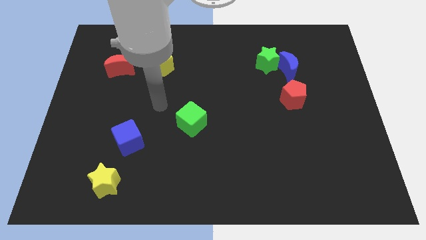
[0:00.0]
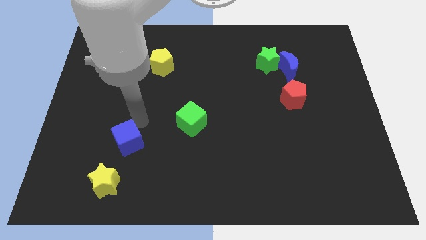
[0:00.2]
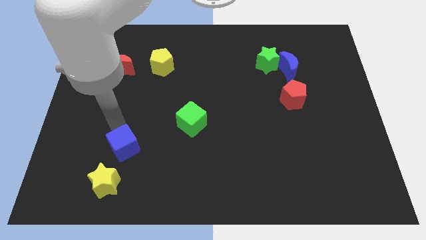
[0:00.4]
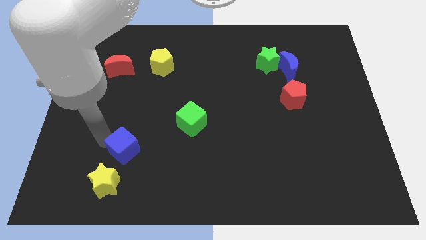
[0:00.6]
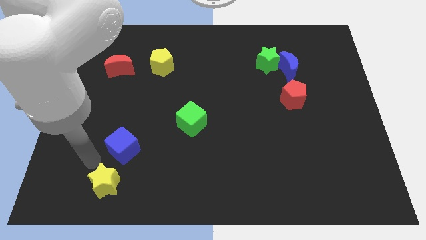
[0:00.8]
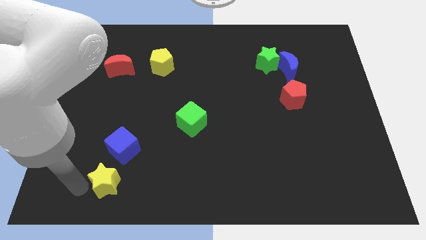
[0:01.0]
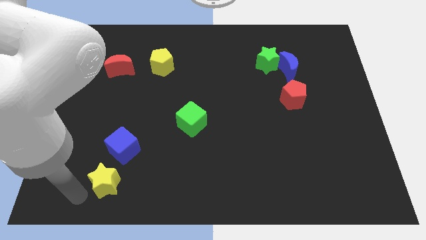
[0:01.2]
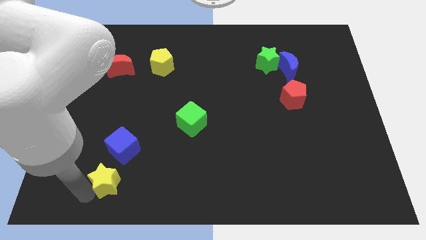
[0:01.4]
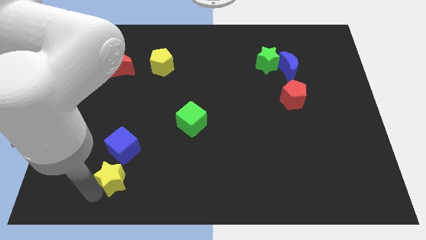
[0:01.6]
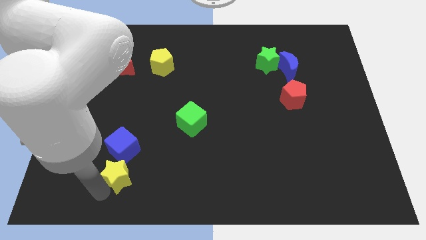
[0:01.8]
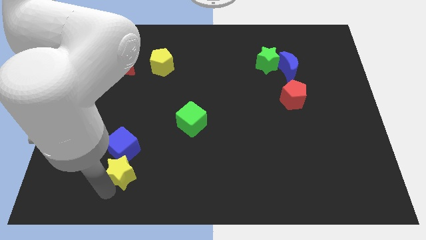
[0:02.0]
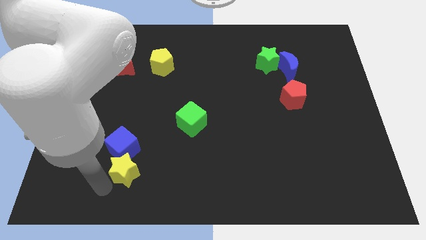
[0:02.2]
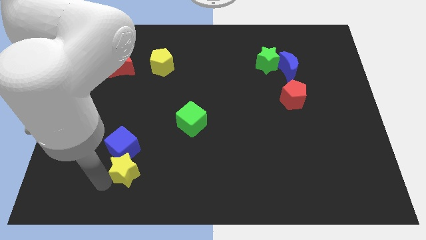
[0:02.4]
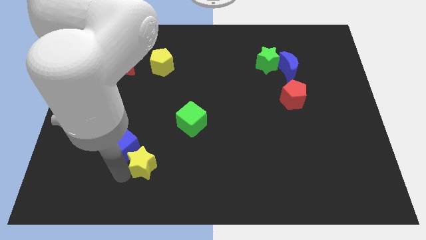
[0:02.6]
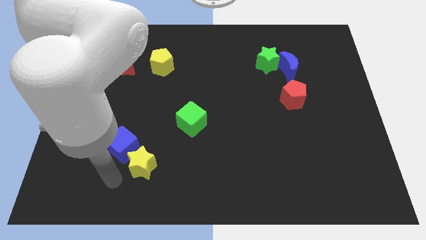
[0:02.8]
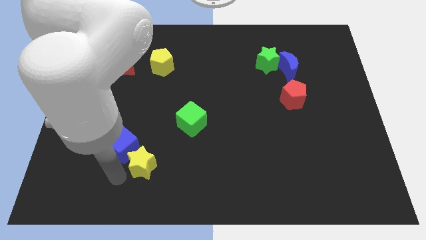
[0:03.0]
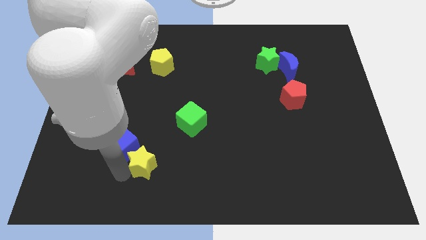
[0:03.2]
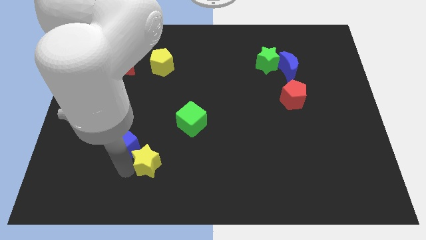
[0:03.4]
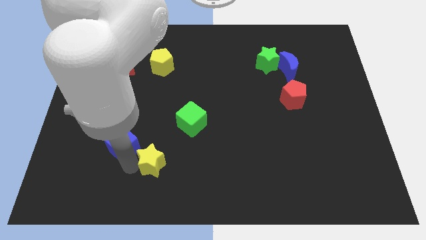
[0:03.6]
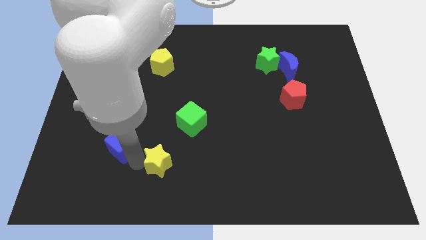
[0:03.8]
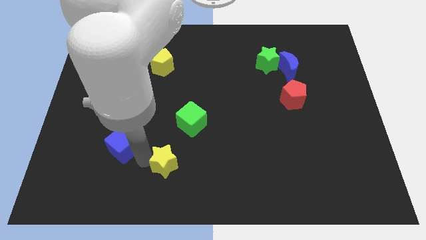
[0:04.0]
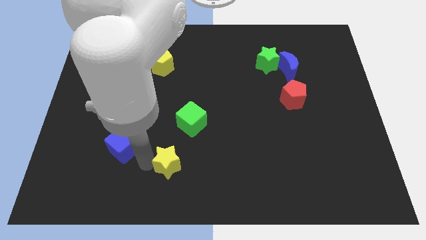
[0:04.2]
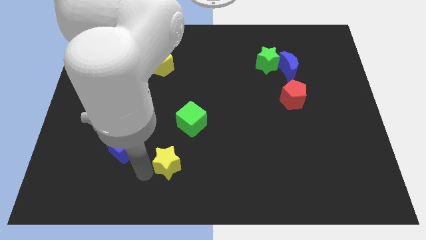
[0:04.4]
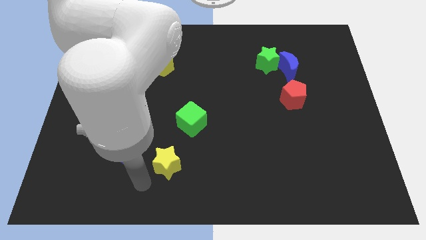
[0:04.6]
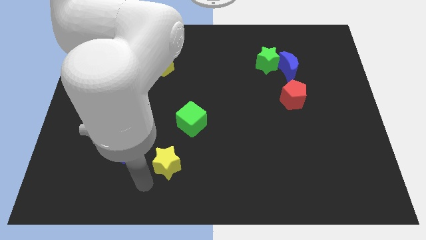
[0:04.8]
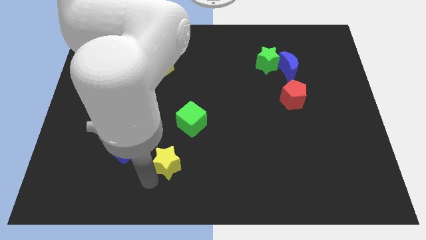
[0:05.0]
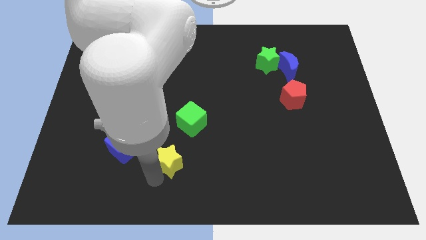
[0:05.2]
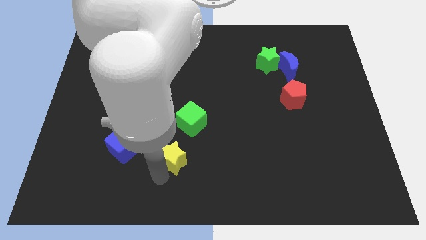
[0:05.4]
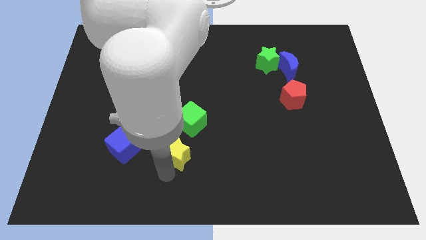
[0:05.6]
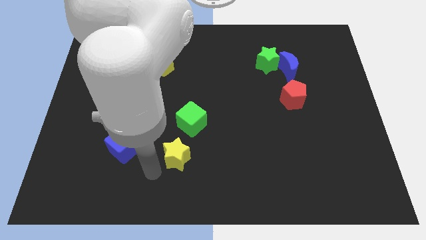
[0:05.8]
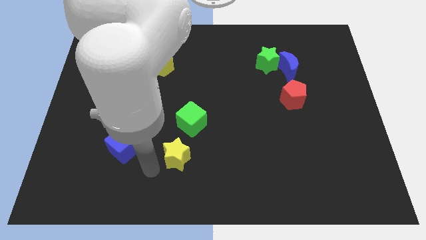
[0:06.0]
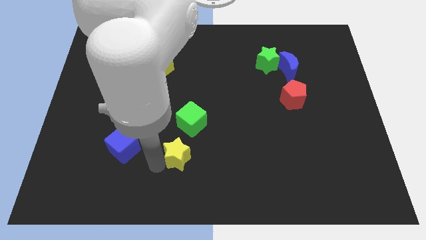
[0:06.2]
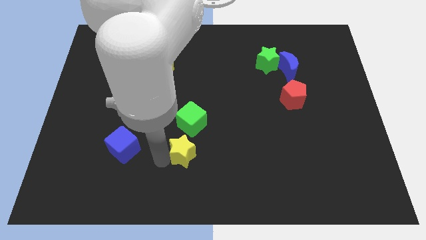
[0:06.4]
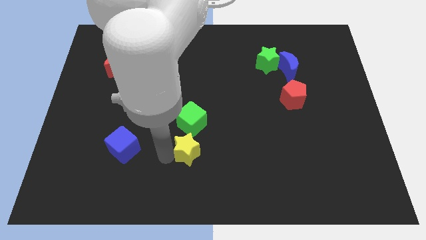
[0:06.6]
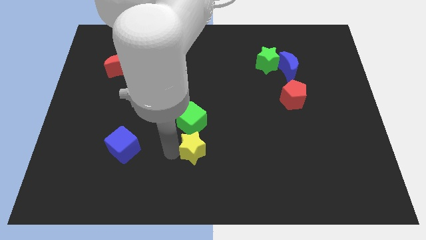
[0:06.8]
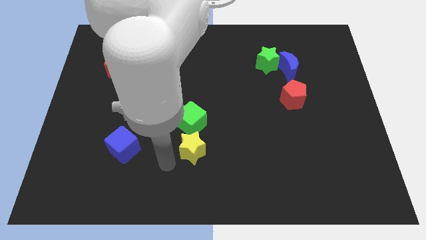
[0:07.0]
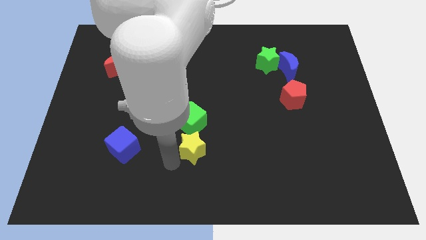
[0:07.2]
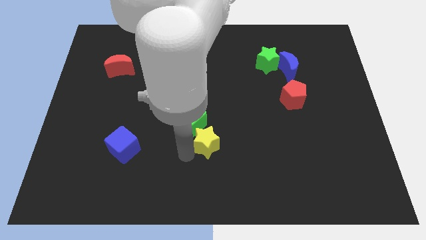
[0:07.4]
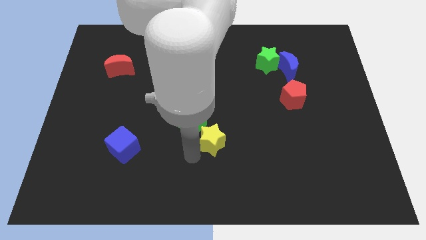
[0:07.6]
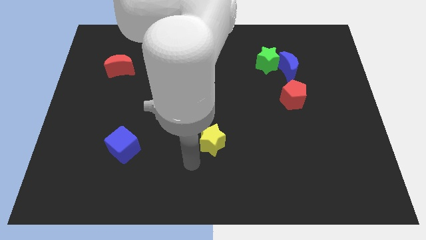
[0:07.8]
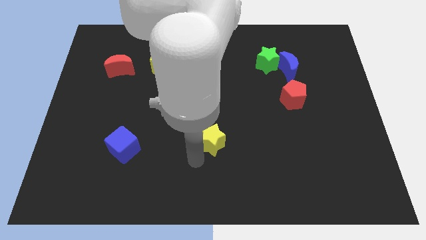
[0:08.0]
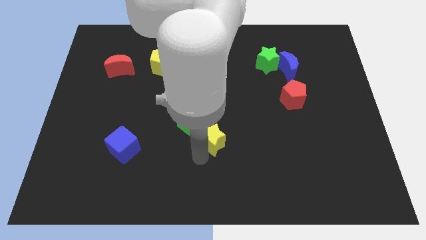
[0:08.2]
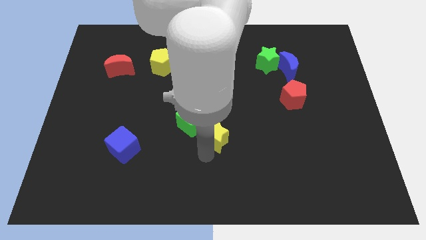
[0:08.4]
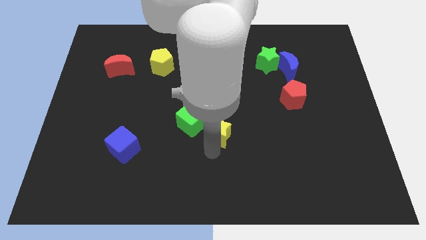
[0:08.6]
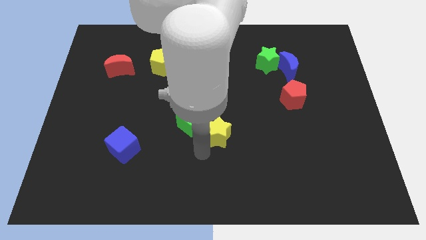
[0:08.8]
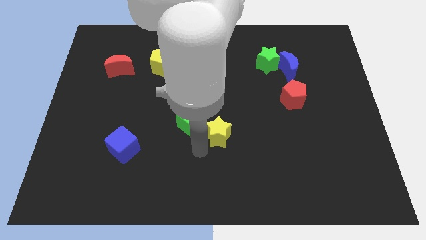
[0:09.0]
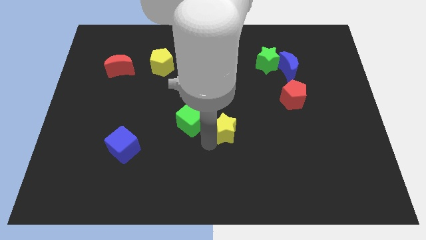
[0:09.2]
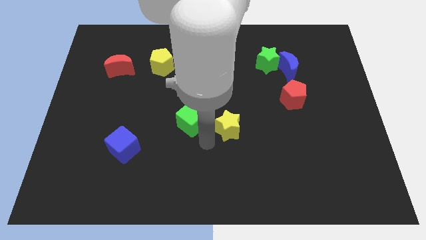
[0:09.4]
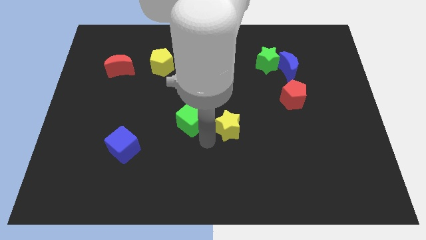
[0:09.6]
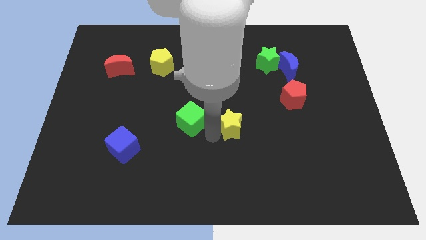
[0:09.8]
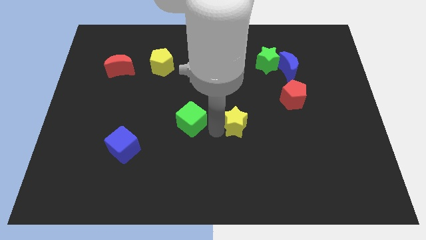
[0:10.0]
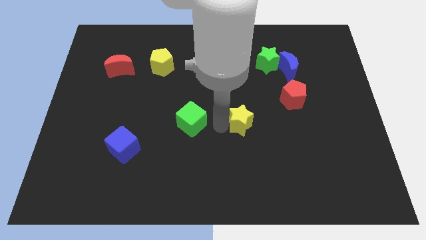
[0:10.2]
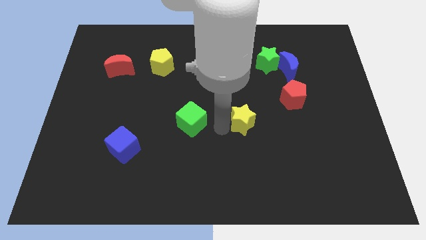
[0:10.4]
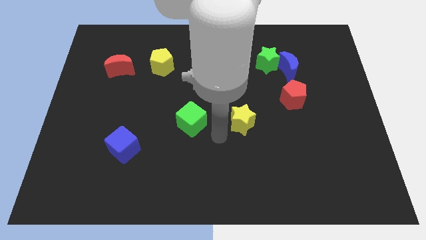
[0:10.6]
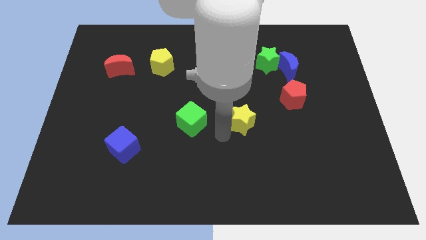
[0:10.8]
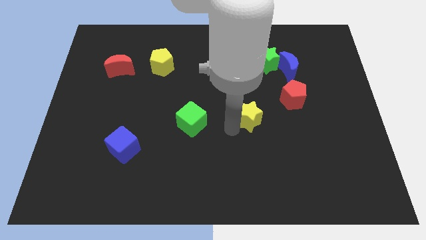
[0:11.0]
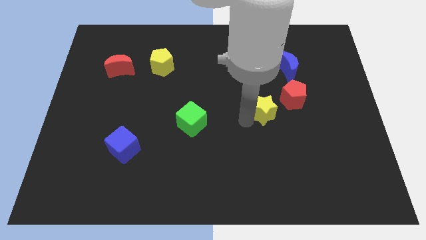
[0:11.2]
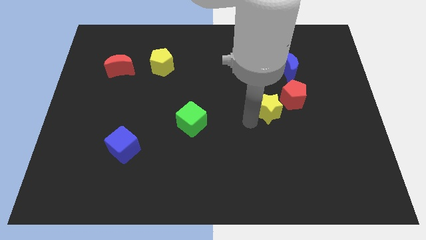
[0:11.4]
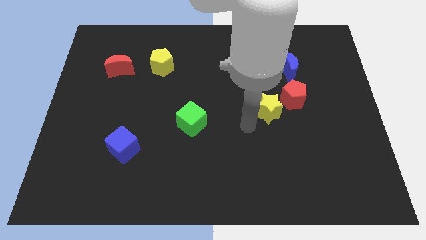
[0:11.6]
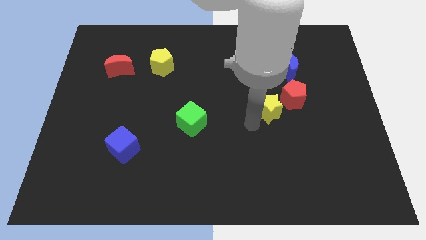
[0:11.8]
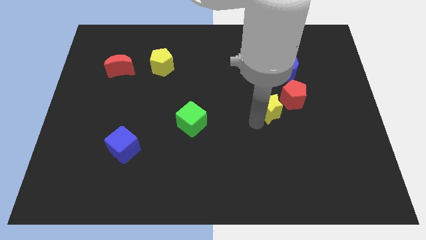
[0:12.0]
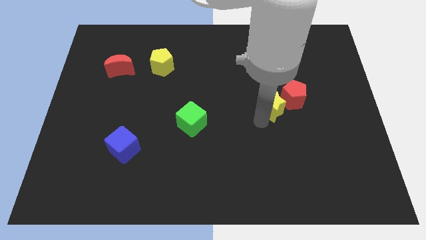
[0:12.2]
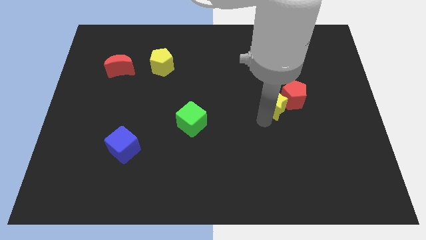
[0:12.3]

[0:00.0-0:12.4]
put the yellow star next to the red pentagon
